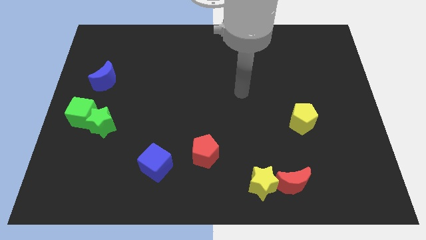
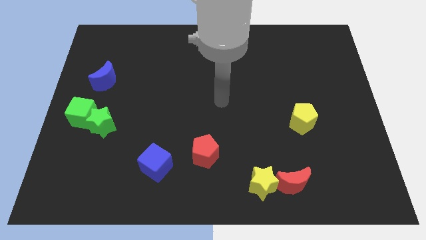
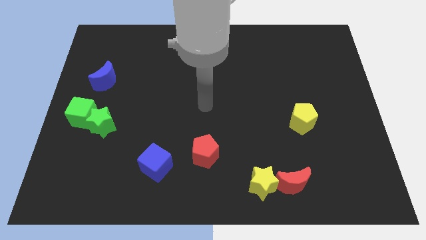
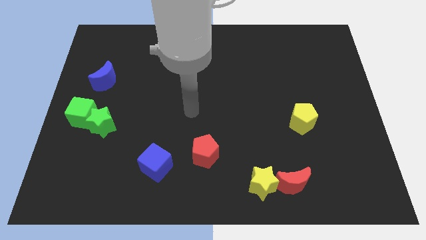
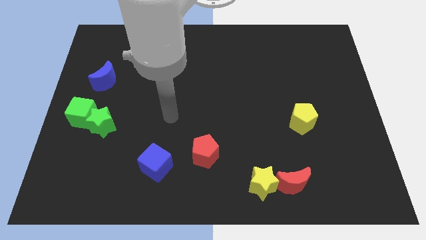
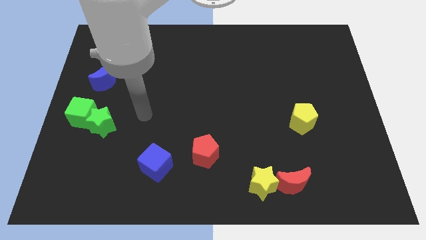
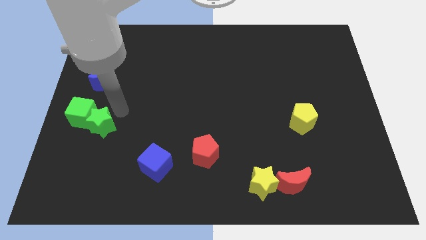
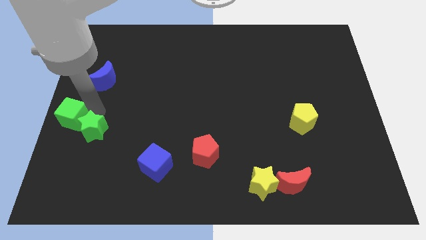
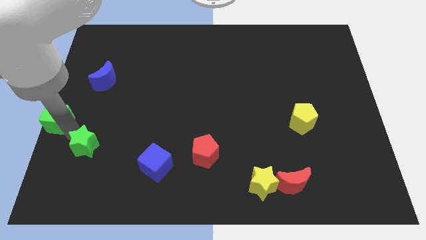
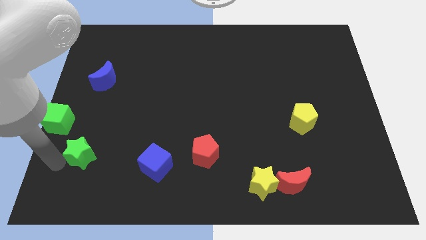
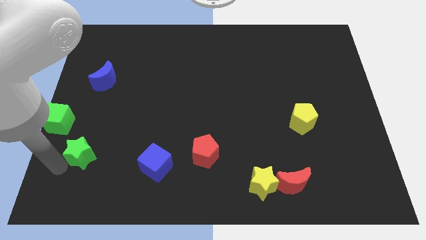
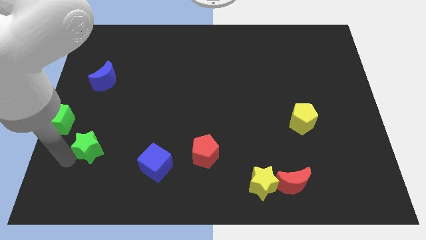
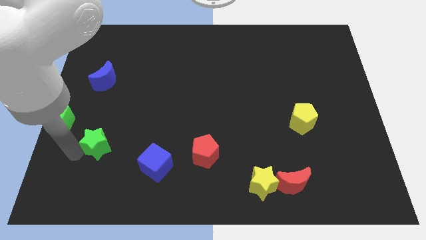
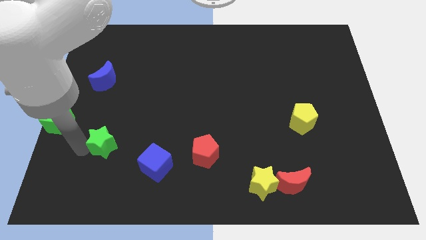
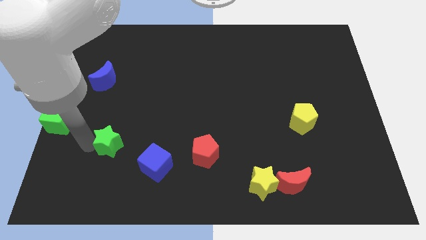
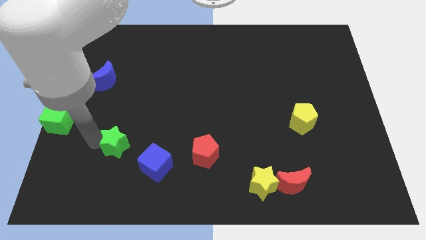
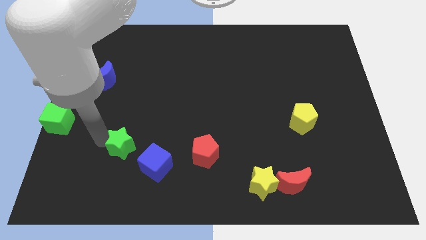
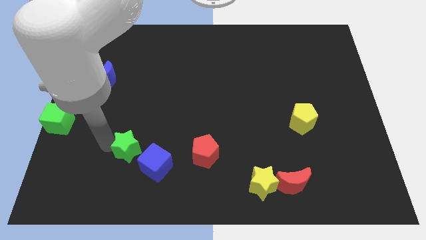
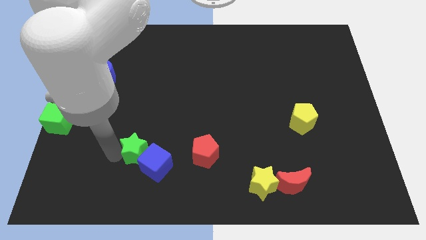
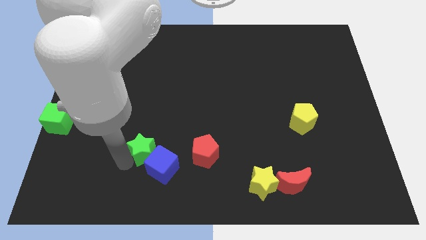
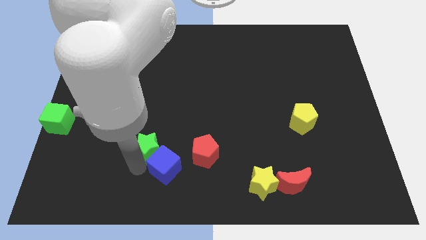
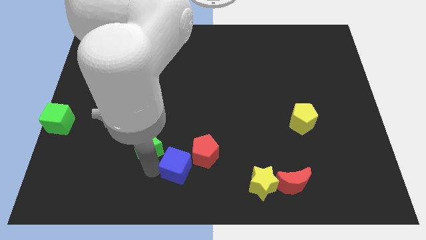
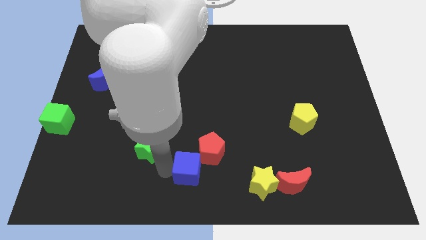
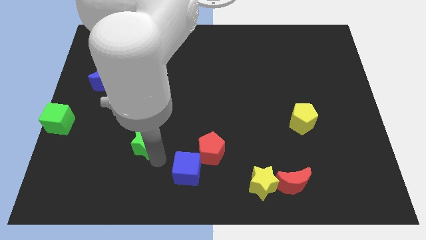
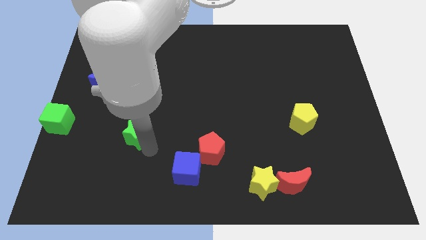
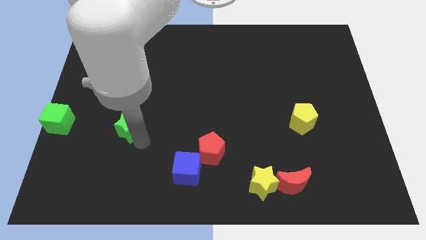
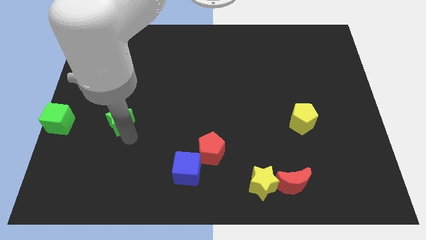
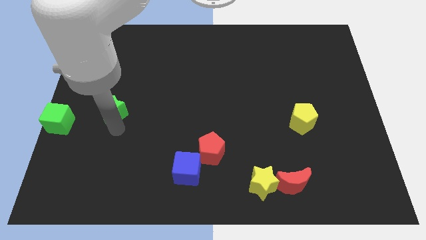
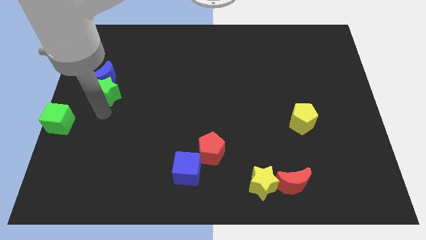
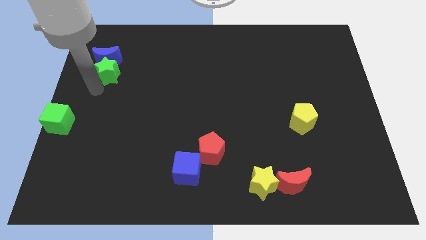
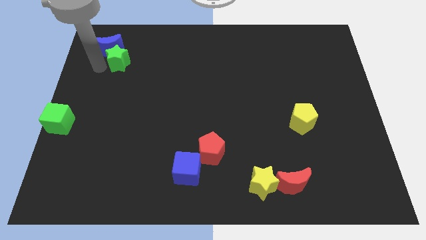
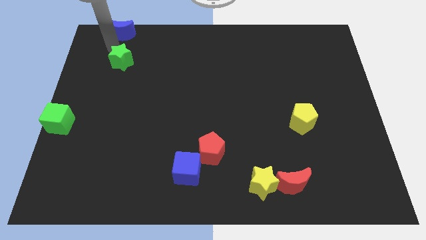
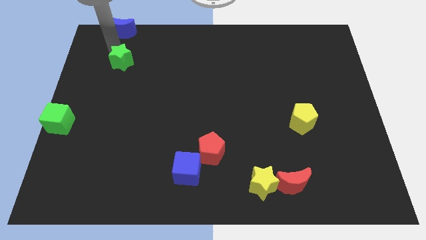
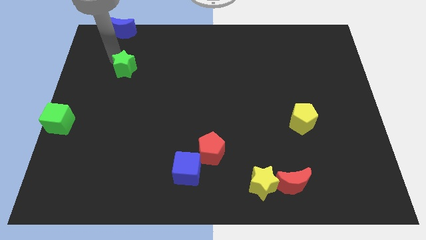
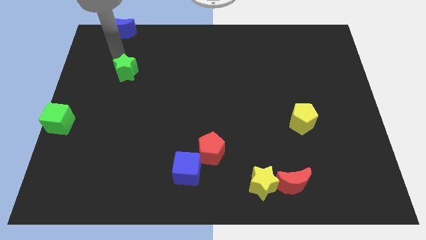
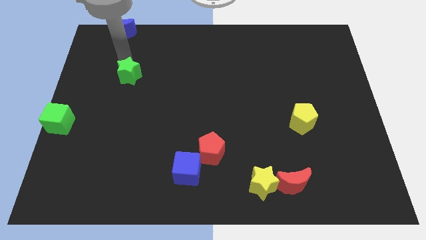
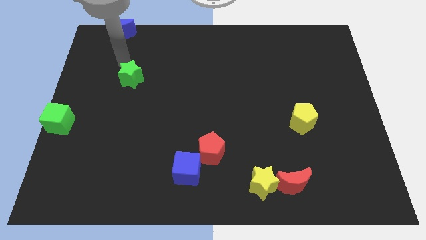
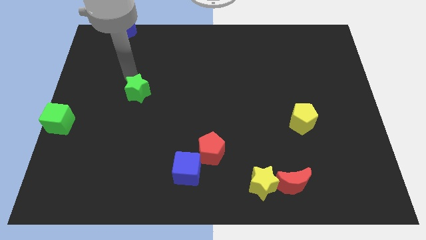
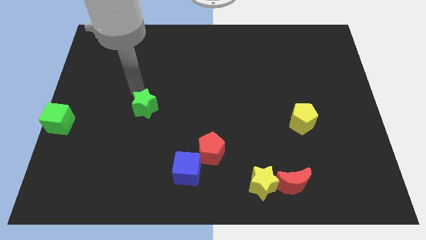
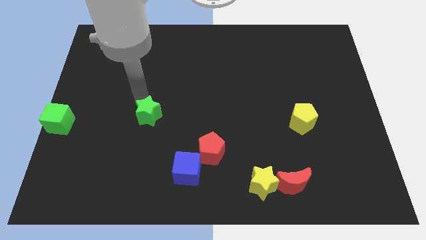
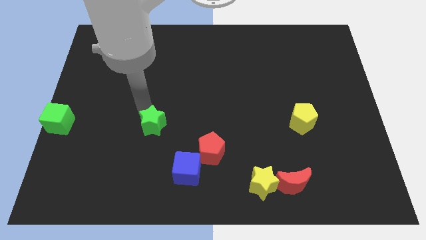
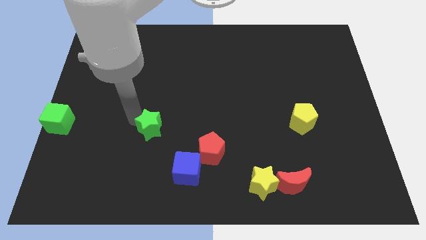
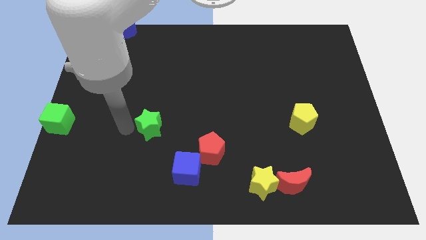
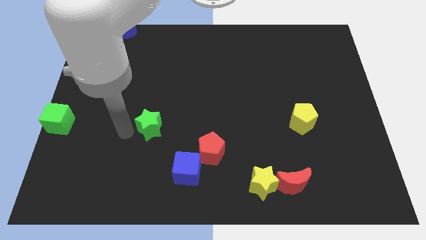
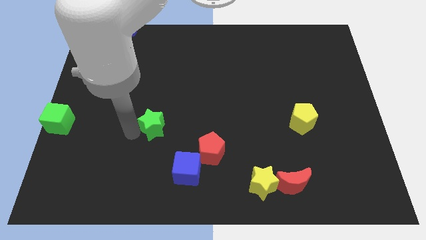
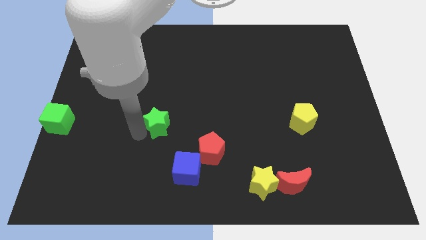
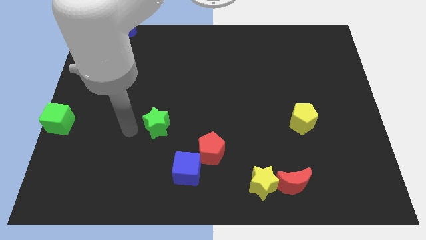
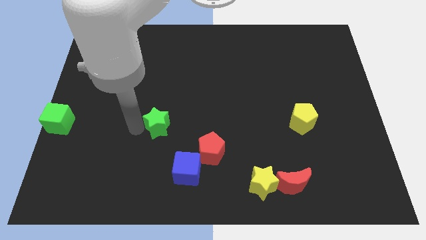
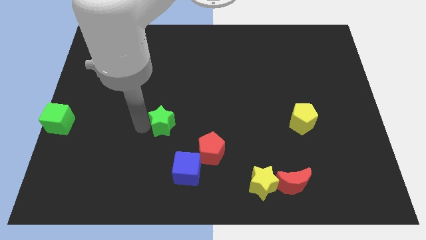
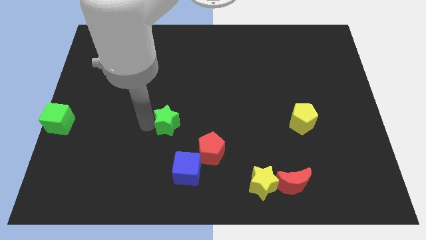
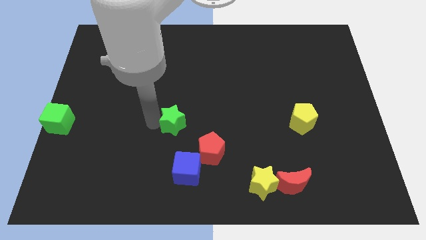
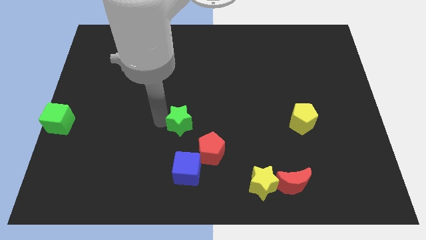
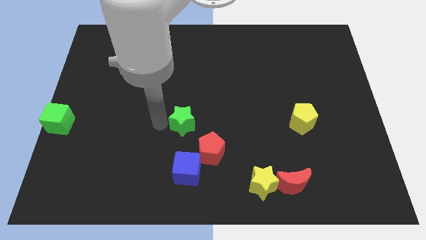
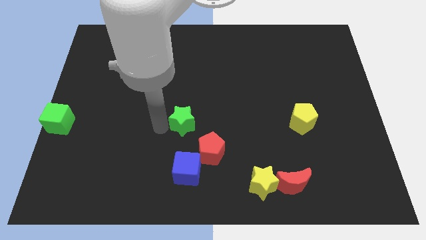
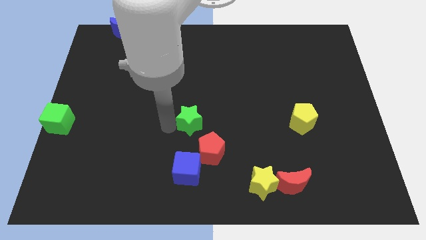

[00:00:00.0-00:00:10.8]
move the green star right

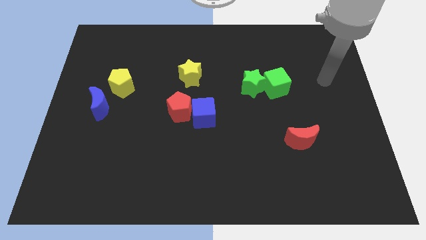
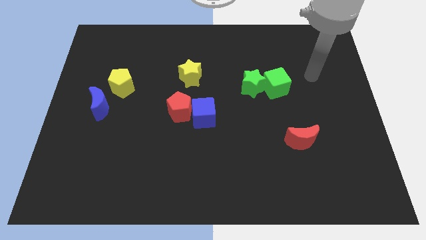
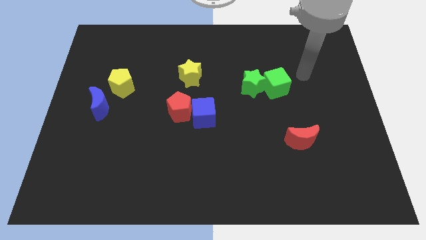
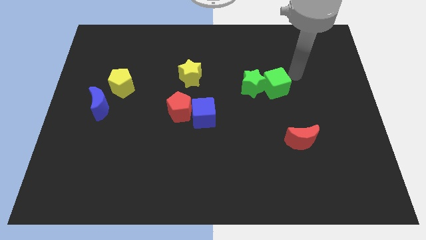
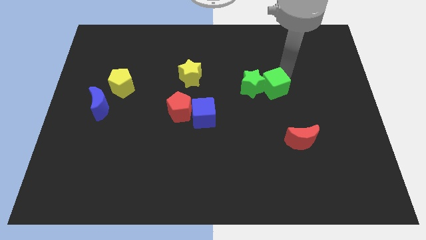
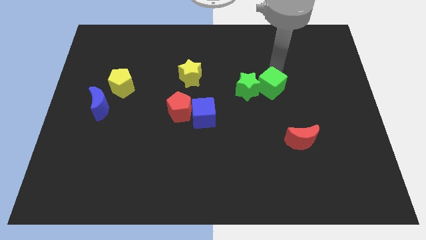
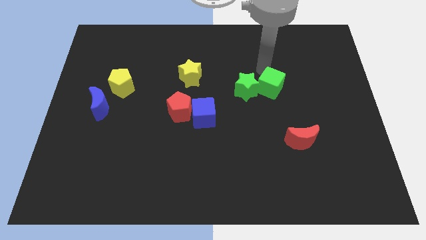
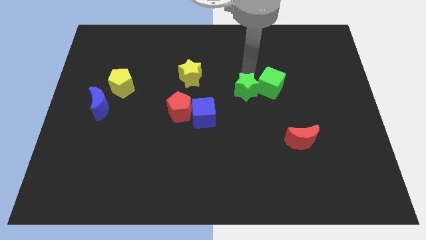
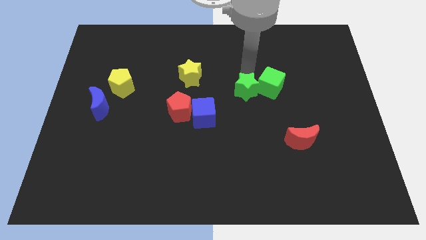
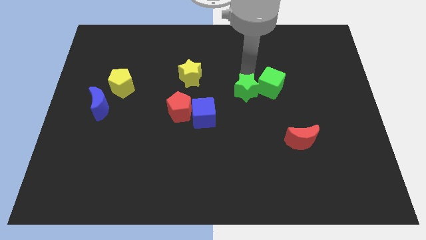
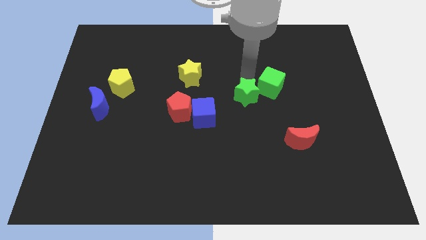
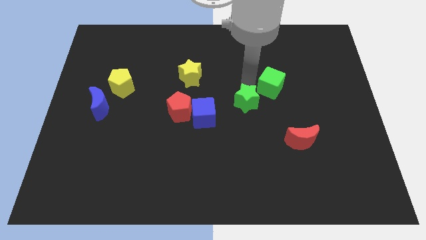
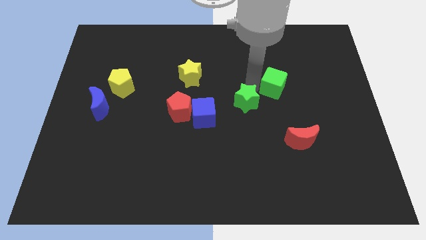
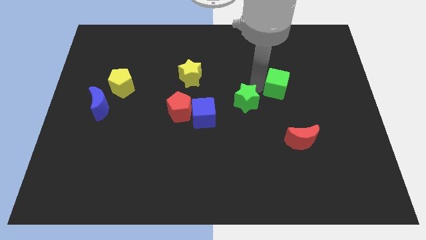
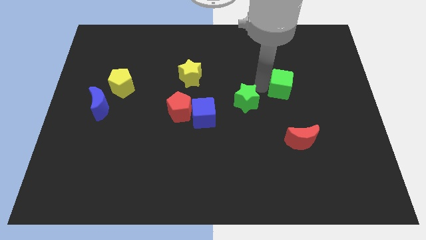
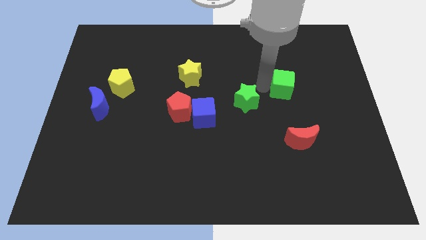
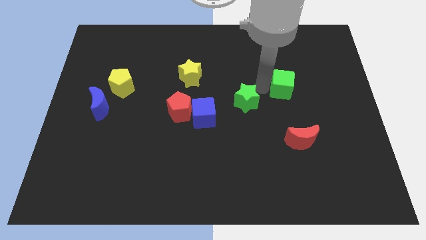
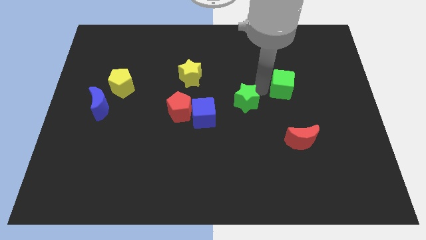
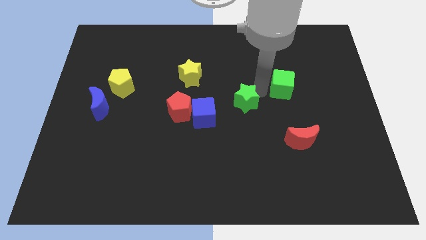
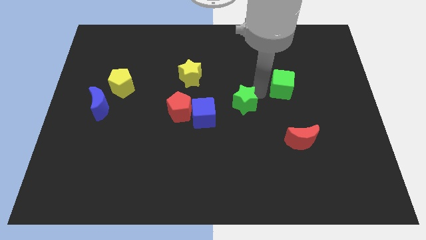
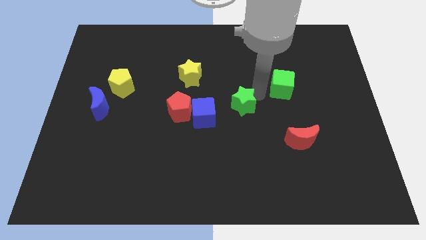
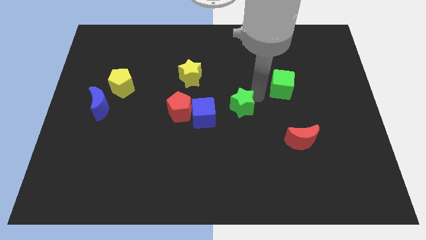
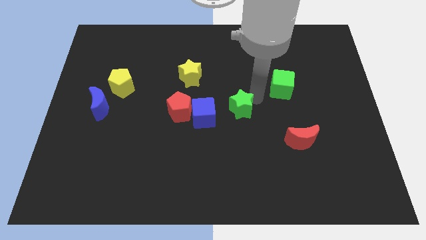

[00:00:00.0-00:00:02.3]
move the green star down and then to the left a little

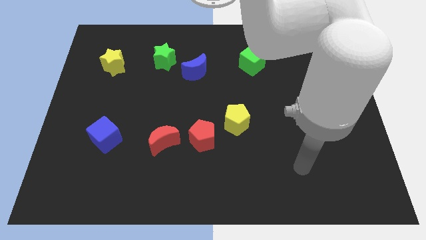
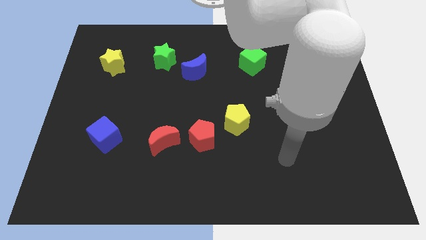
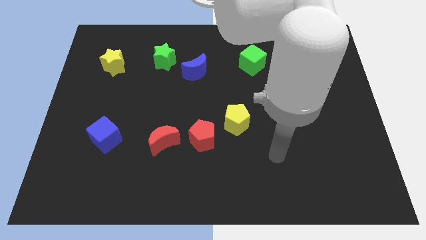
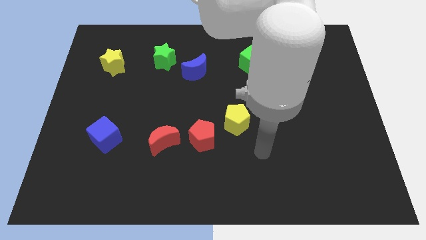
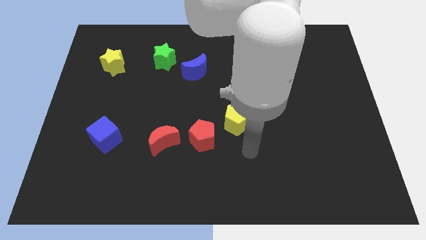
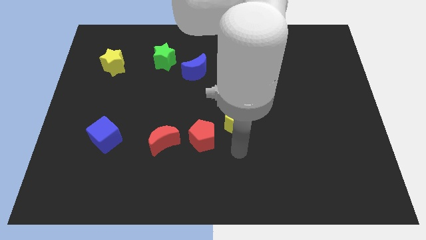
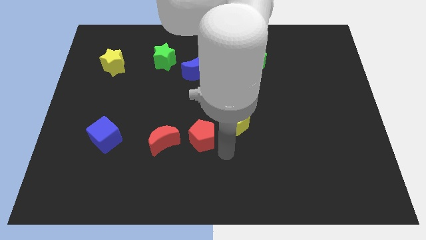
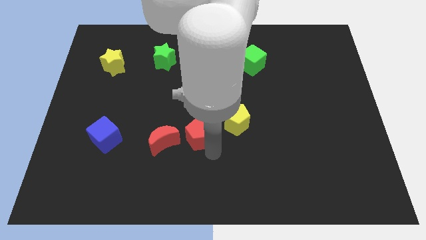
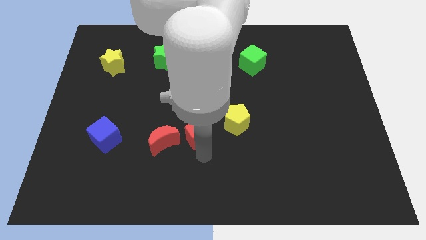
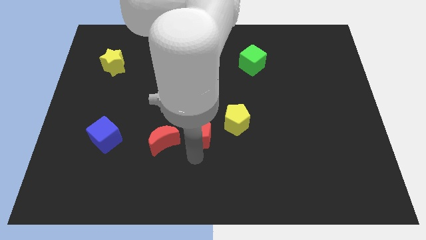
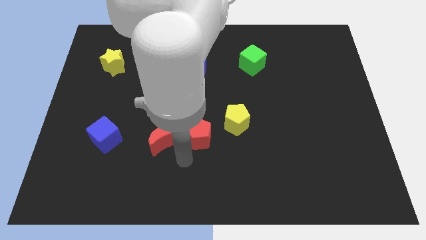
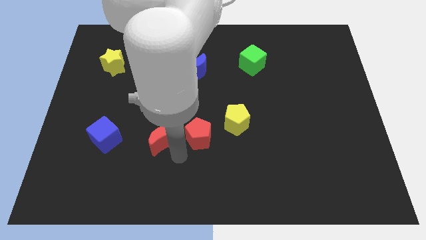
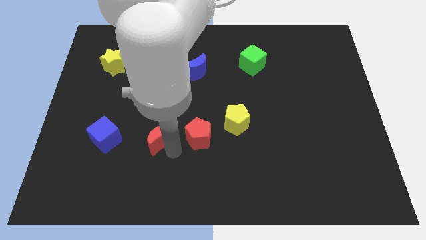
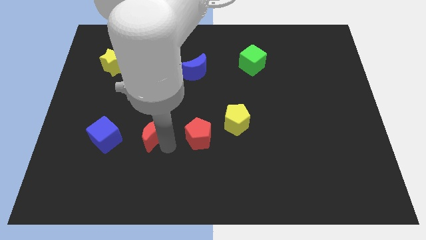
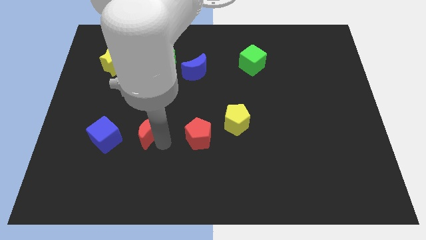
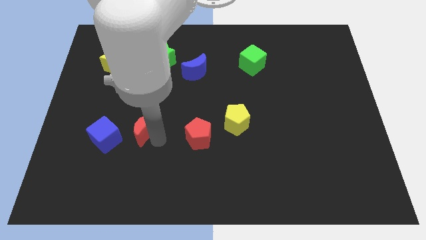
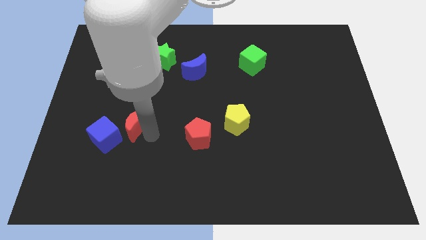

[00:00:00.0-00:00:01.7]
slide the red moon upwards and then to the left a little
